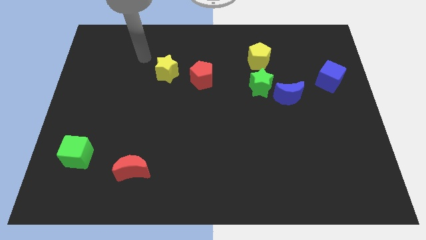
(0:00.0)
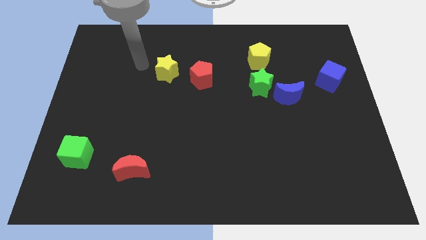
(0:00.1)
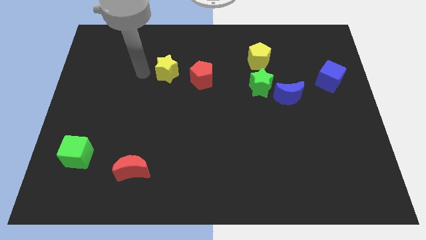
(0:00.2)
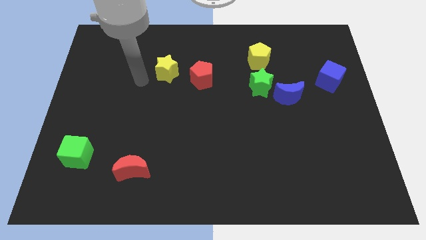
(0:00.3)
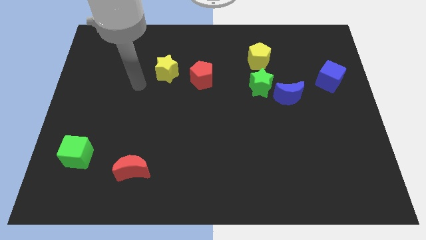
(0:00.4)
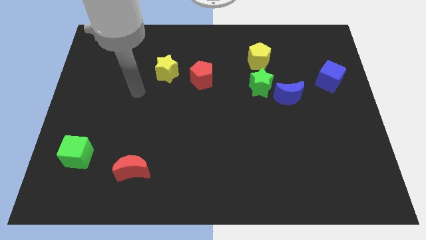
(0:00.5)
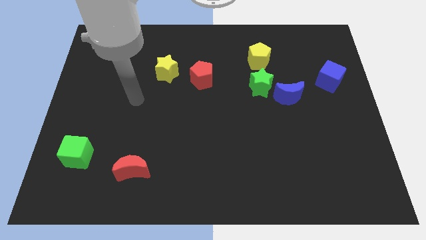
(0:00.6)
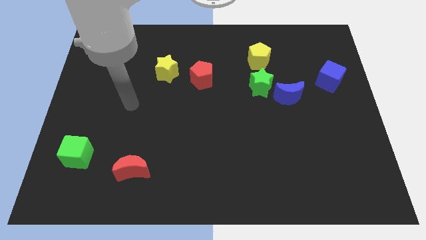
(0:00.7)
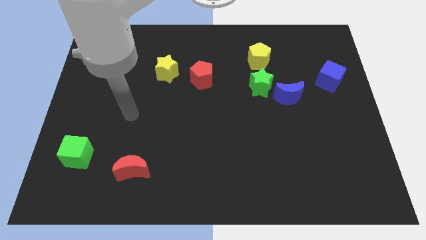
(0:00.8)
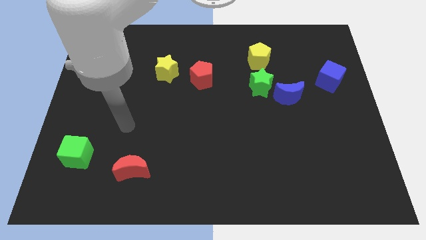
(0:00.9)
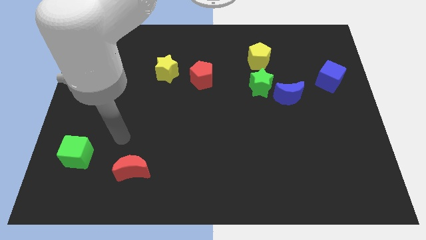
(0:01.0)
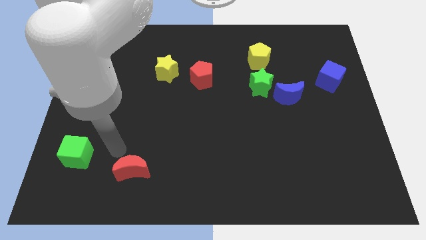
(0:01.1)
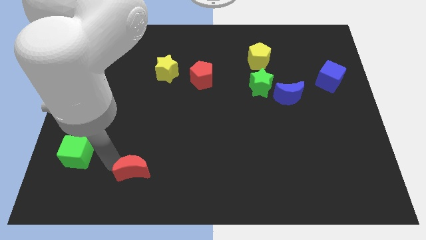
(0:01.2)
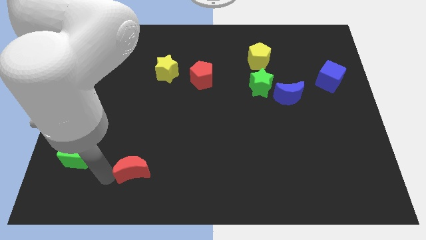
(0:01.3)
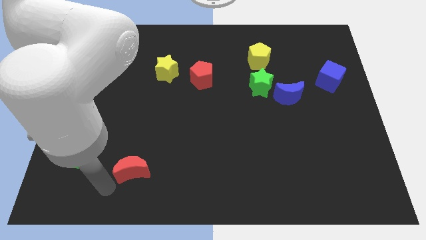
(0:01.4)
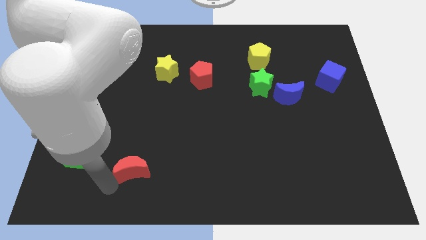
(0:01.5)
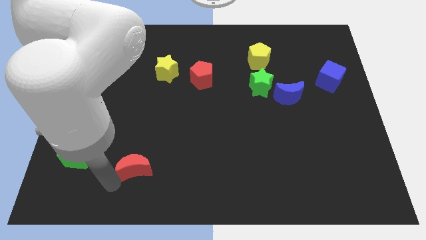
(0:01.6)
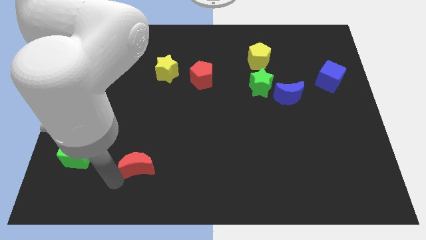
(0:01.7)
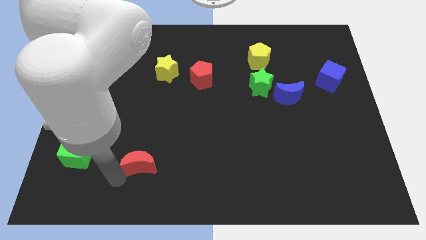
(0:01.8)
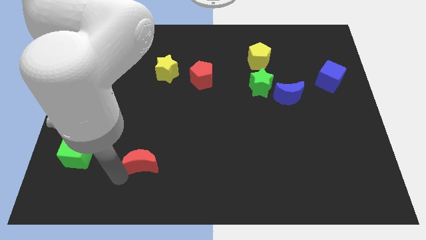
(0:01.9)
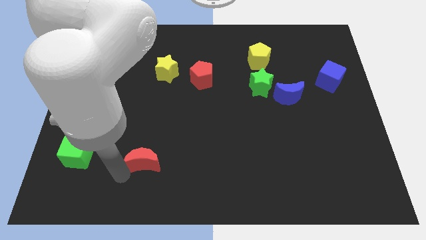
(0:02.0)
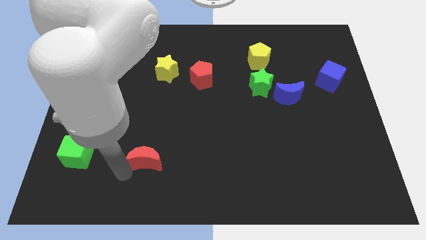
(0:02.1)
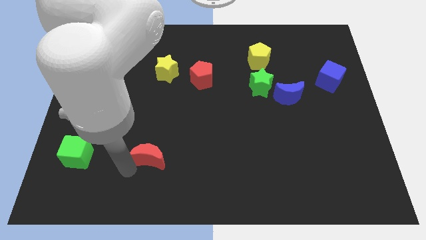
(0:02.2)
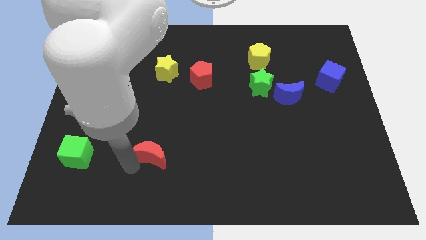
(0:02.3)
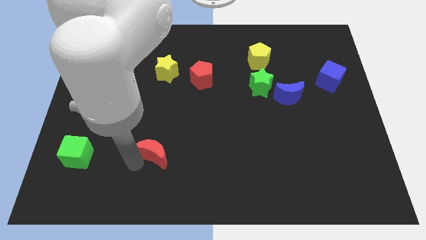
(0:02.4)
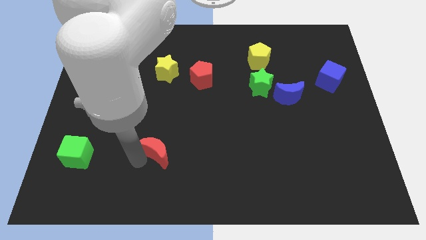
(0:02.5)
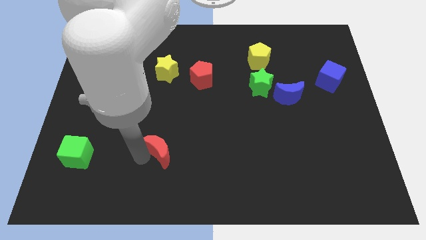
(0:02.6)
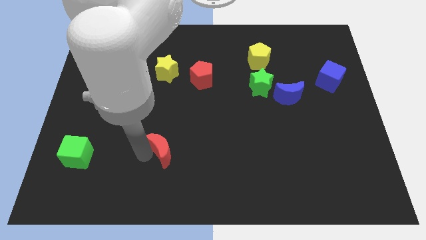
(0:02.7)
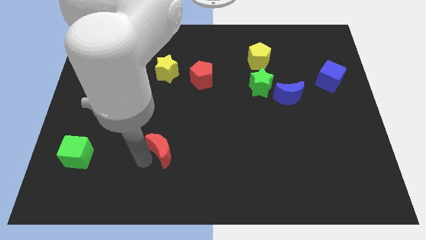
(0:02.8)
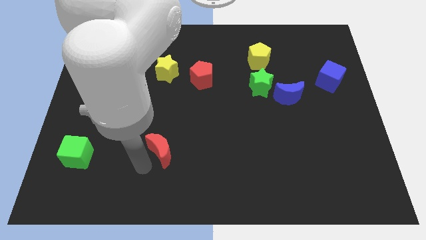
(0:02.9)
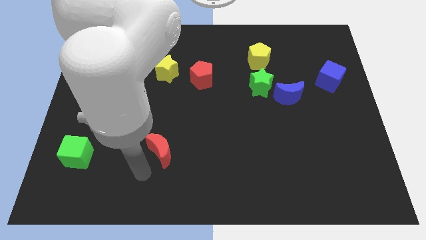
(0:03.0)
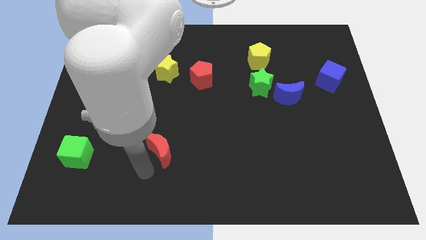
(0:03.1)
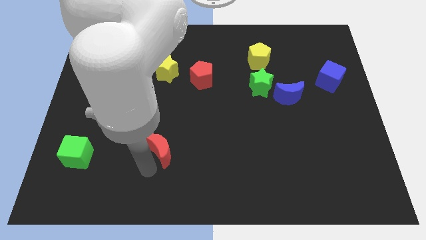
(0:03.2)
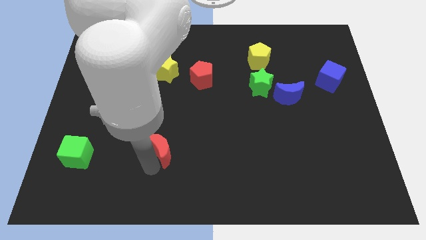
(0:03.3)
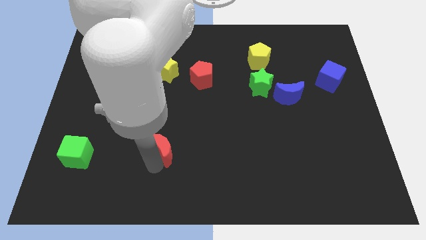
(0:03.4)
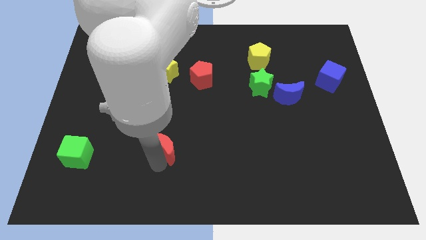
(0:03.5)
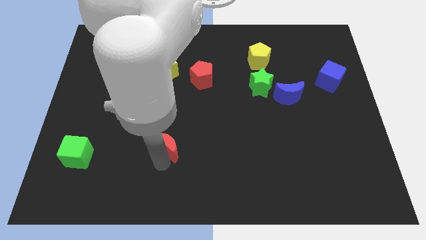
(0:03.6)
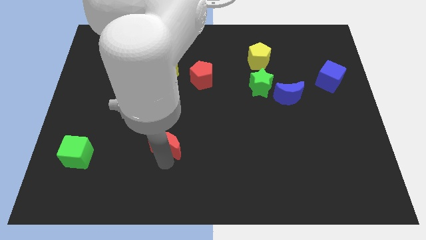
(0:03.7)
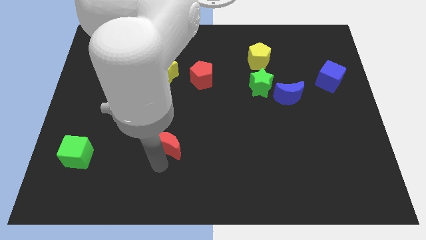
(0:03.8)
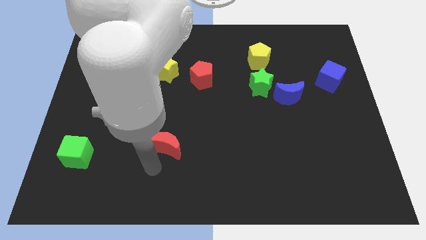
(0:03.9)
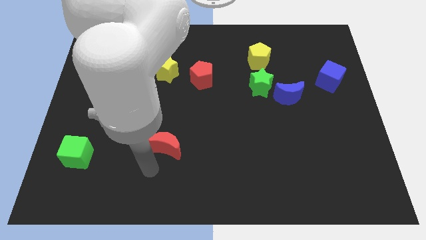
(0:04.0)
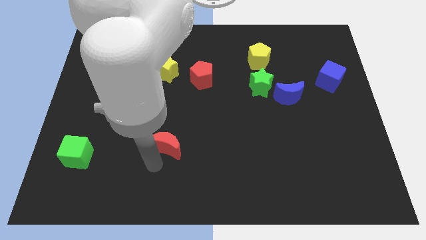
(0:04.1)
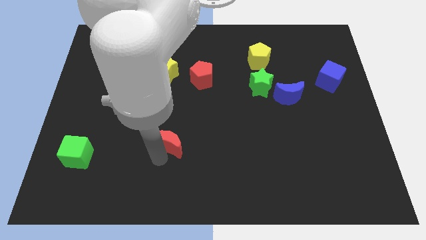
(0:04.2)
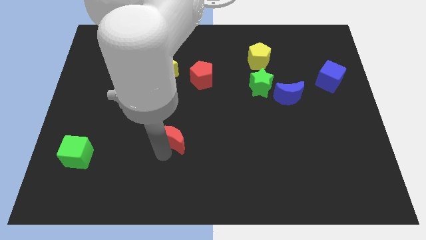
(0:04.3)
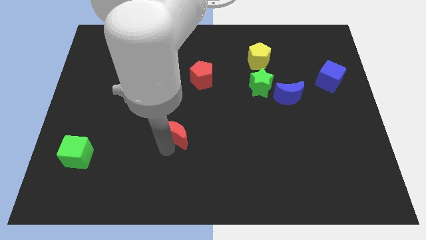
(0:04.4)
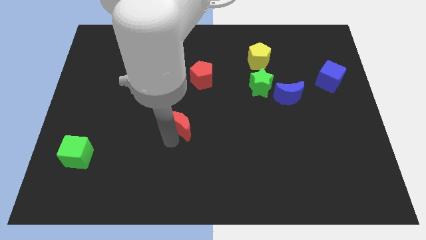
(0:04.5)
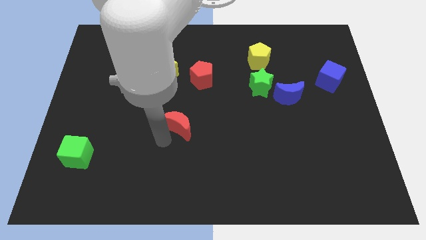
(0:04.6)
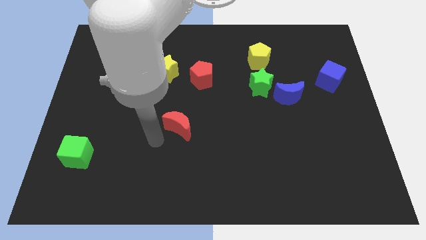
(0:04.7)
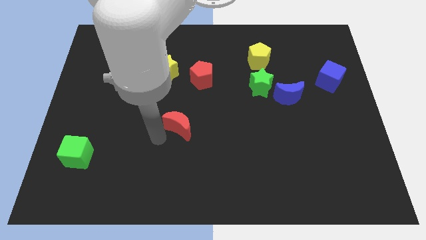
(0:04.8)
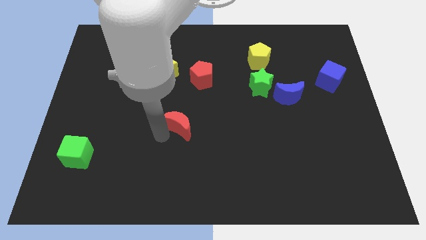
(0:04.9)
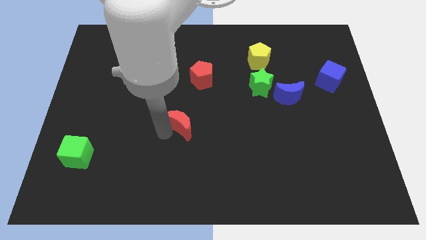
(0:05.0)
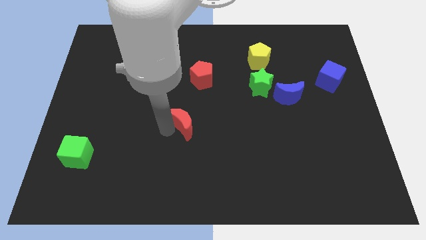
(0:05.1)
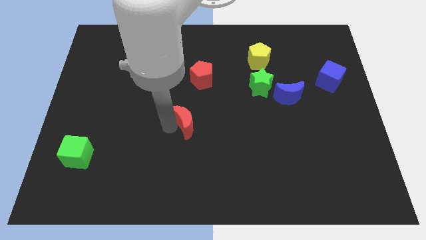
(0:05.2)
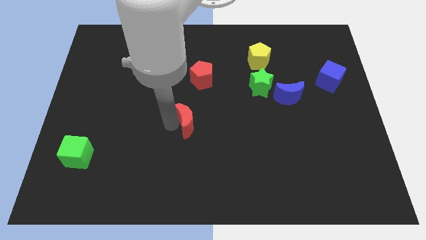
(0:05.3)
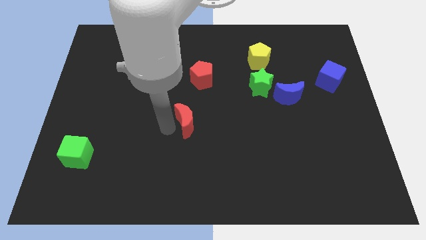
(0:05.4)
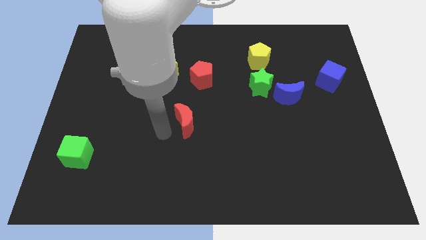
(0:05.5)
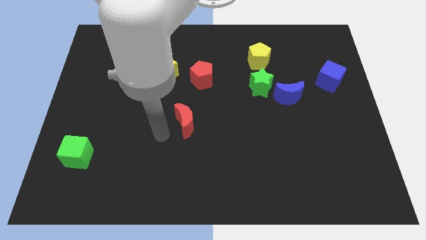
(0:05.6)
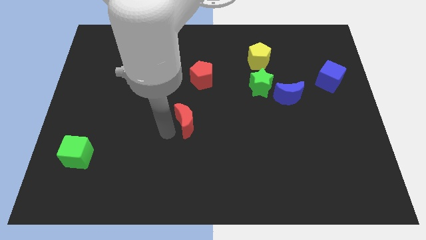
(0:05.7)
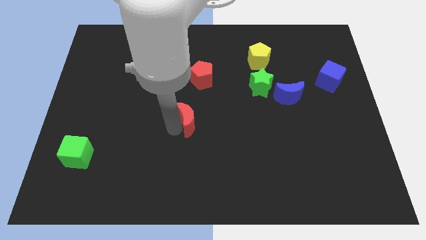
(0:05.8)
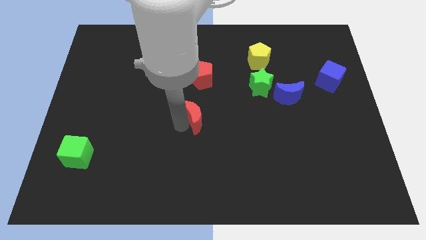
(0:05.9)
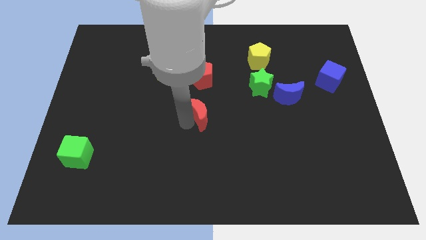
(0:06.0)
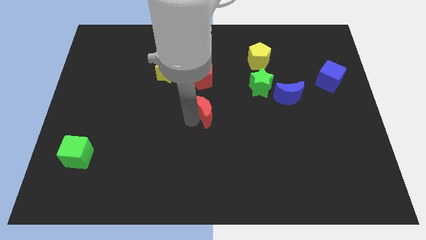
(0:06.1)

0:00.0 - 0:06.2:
push the red moon upwards and to the right

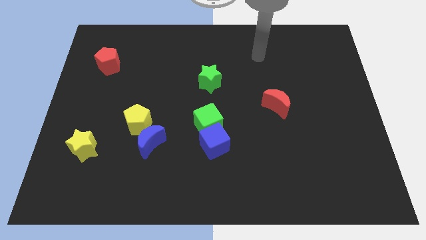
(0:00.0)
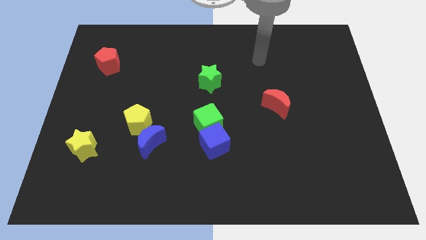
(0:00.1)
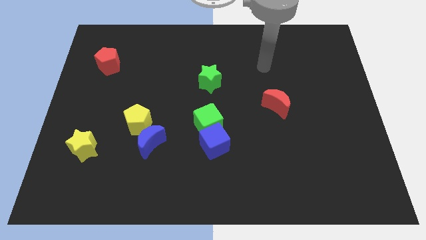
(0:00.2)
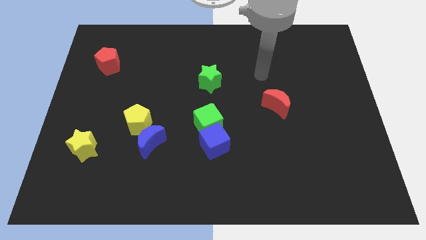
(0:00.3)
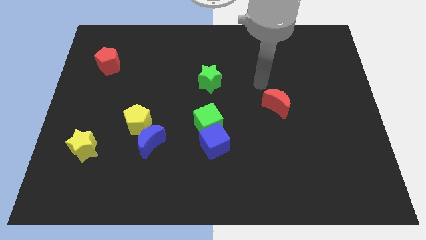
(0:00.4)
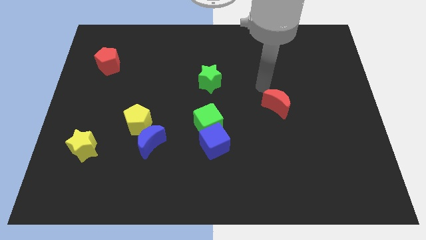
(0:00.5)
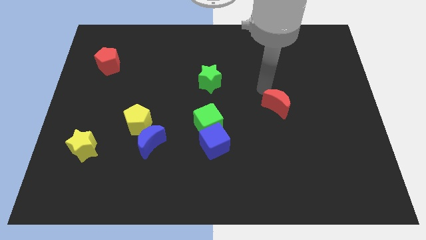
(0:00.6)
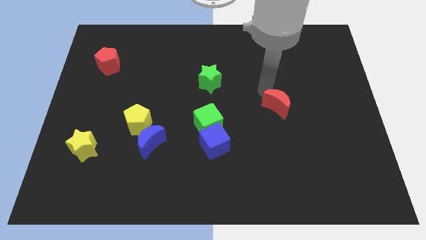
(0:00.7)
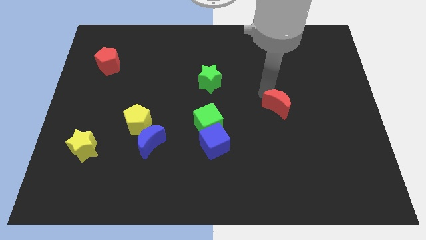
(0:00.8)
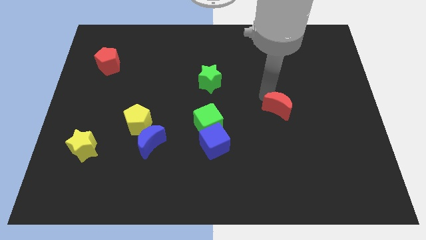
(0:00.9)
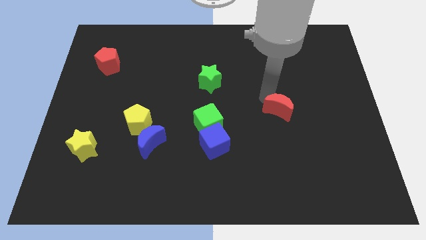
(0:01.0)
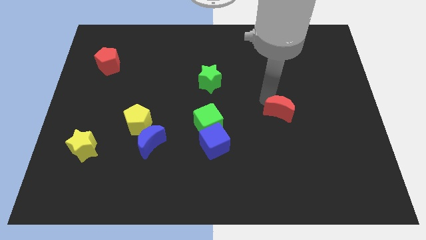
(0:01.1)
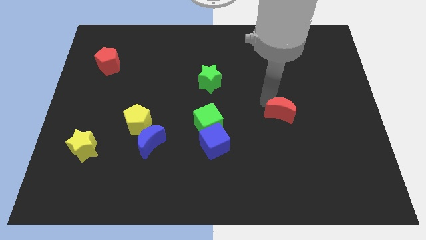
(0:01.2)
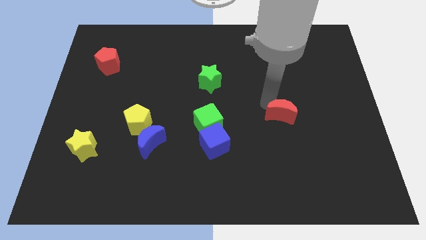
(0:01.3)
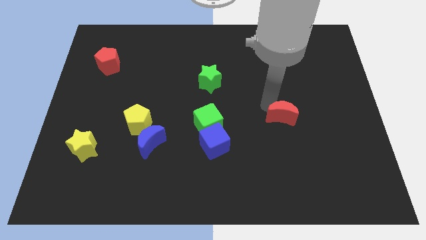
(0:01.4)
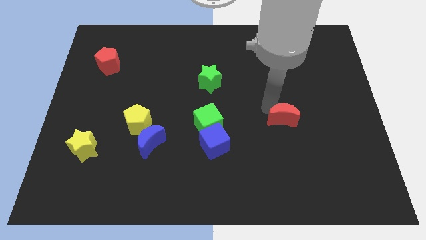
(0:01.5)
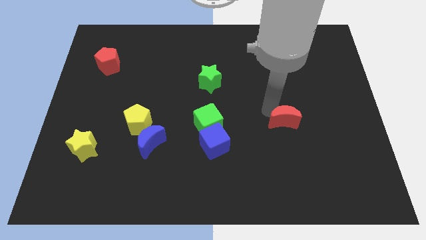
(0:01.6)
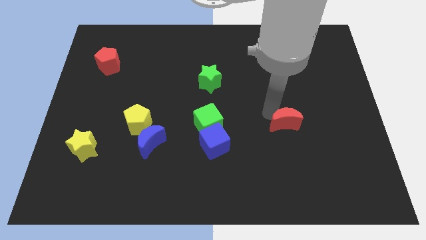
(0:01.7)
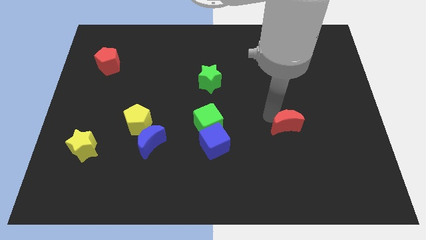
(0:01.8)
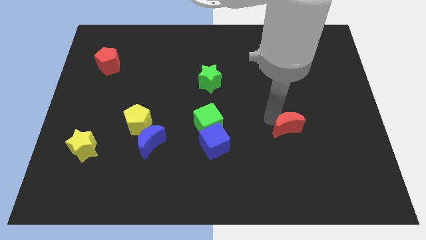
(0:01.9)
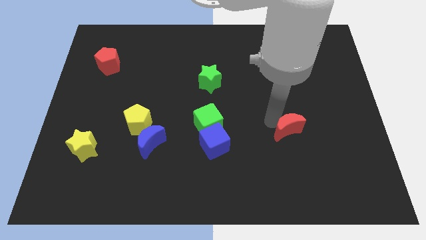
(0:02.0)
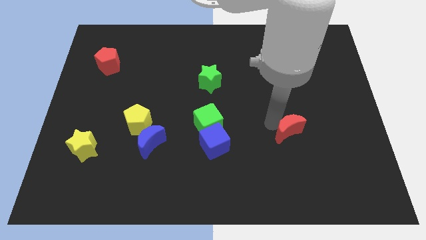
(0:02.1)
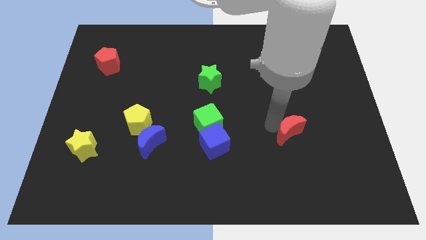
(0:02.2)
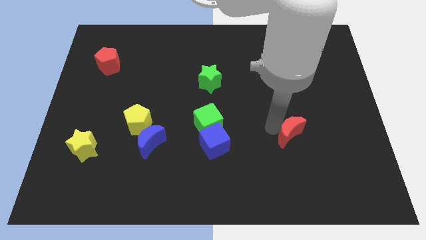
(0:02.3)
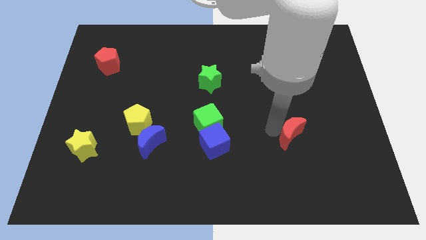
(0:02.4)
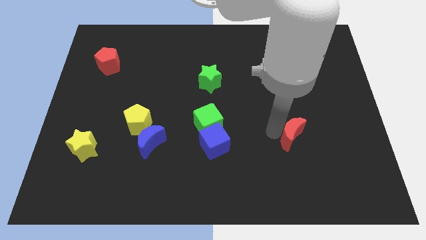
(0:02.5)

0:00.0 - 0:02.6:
move the red moon downwards and to the right slightly
